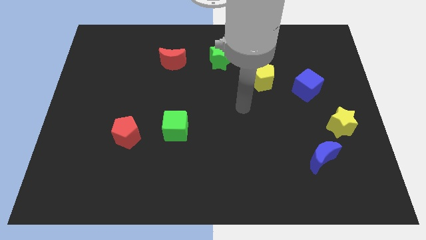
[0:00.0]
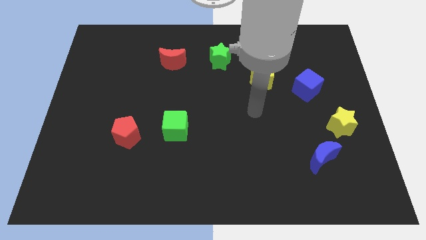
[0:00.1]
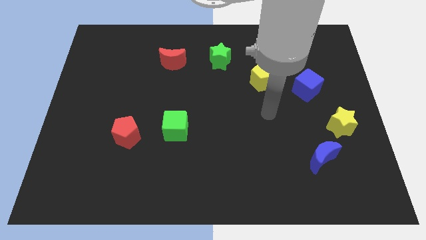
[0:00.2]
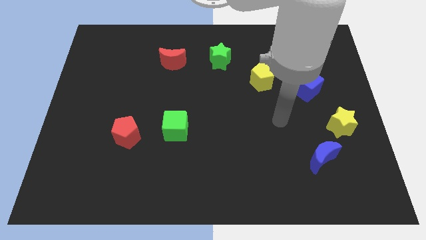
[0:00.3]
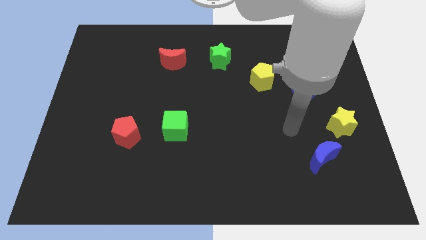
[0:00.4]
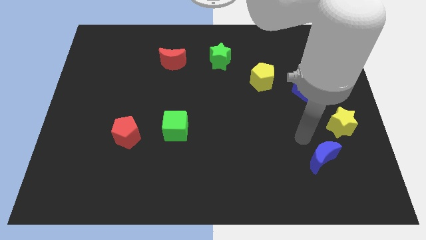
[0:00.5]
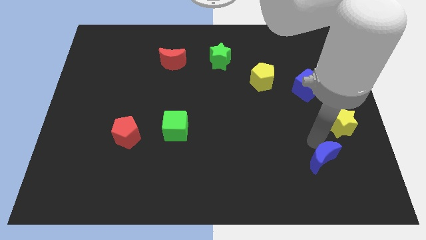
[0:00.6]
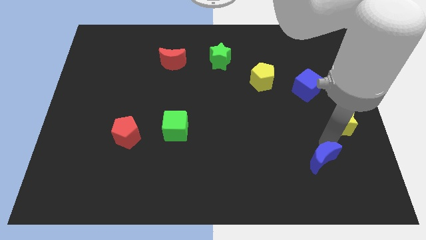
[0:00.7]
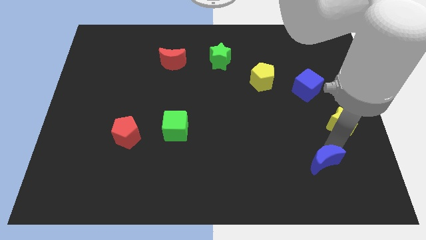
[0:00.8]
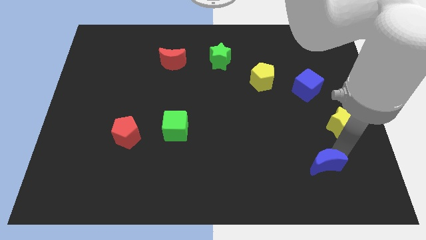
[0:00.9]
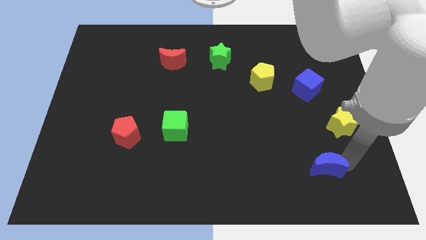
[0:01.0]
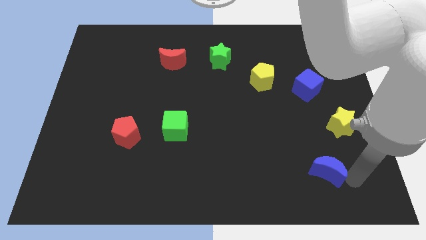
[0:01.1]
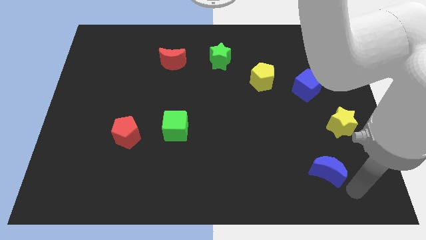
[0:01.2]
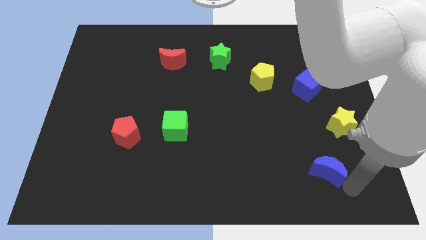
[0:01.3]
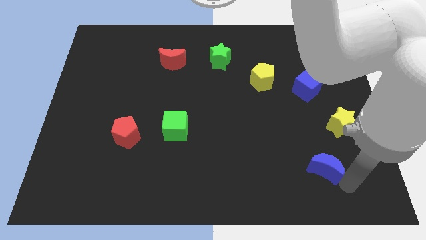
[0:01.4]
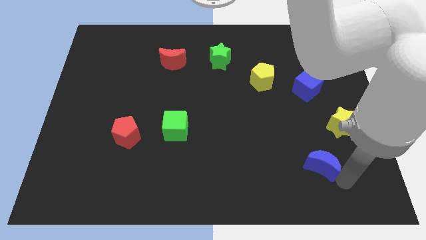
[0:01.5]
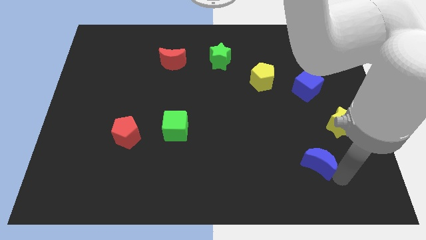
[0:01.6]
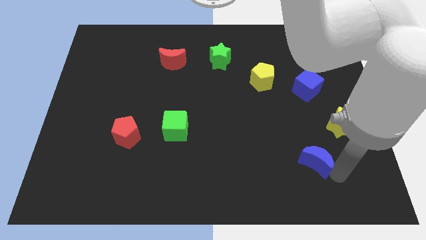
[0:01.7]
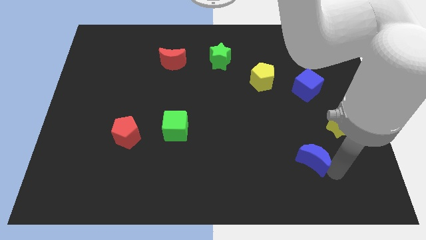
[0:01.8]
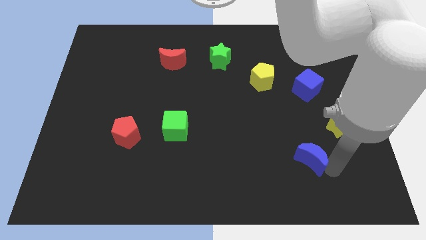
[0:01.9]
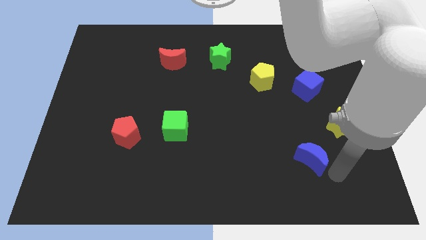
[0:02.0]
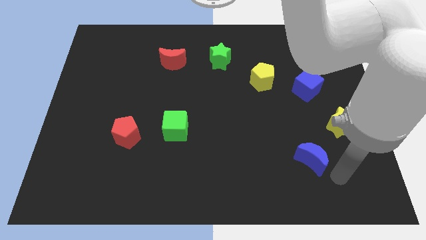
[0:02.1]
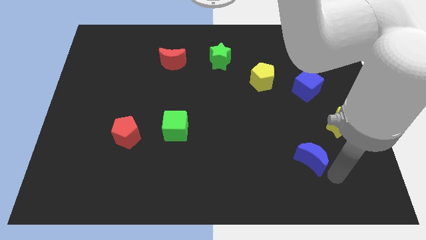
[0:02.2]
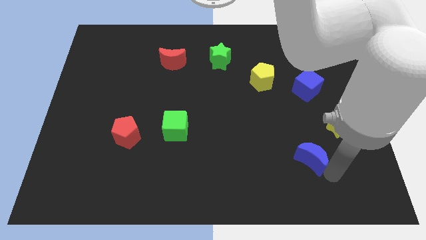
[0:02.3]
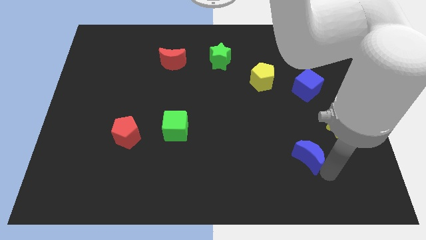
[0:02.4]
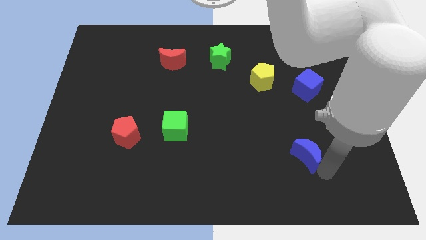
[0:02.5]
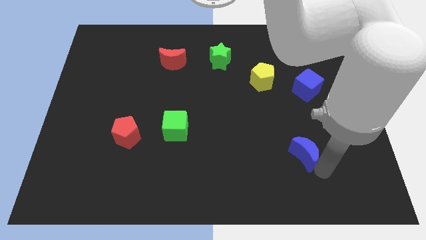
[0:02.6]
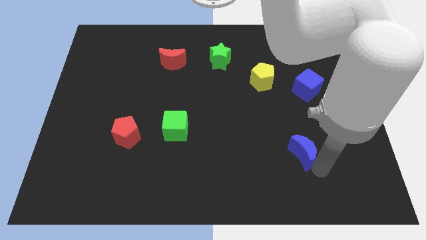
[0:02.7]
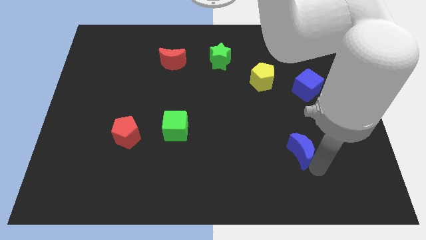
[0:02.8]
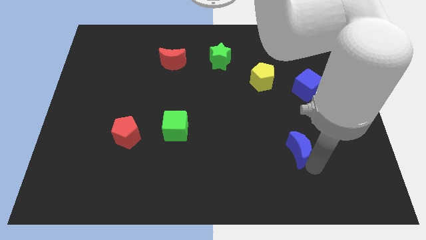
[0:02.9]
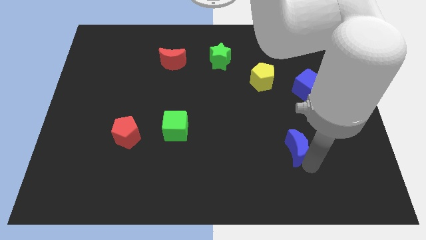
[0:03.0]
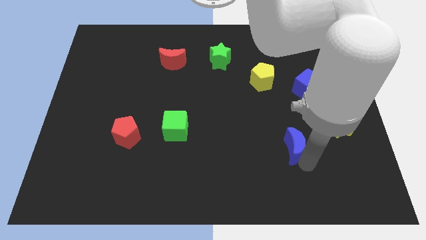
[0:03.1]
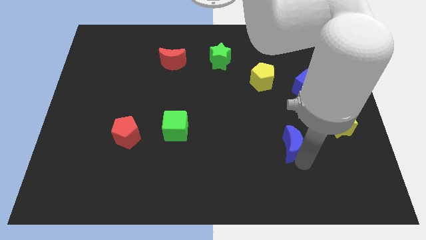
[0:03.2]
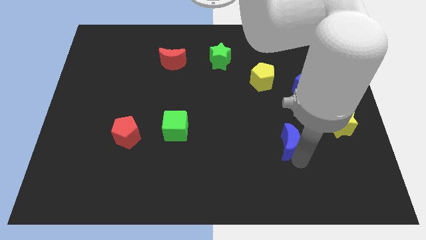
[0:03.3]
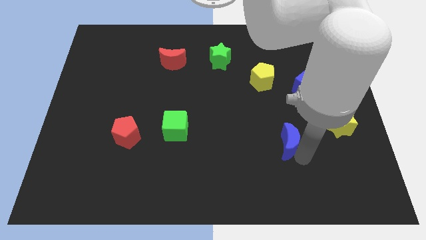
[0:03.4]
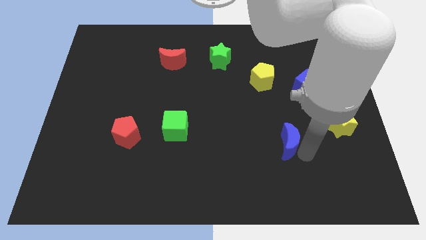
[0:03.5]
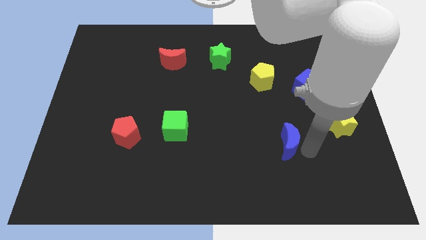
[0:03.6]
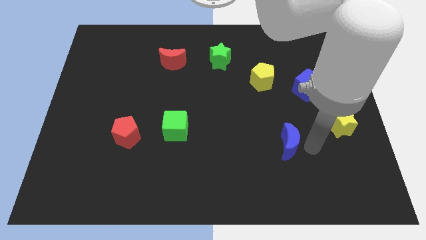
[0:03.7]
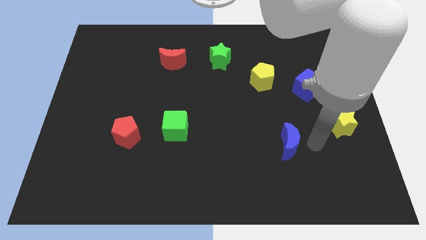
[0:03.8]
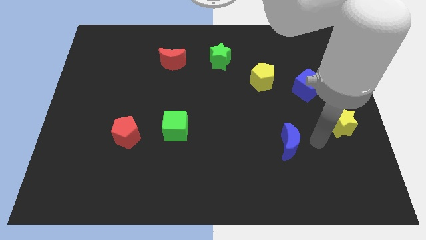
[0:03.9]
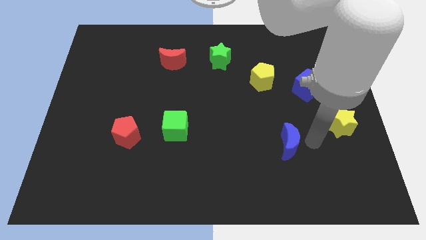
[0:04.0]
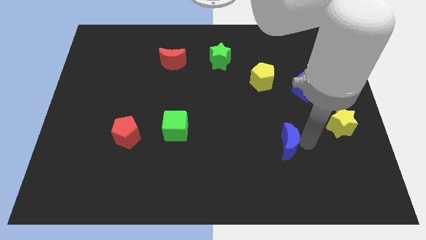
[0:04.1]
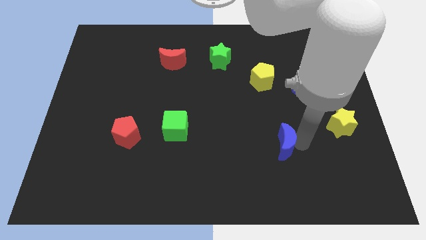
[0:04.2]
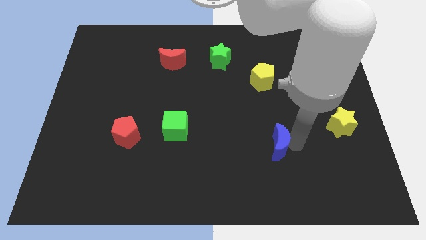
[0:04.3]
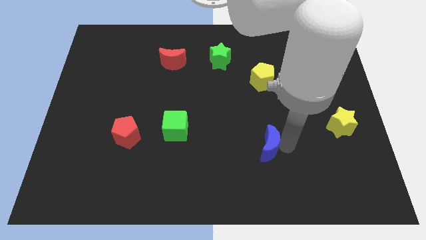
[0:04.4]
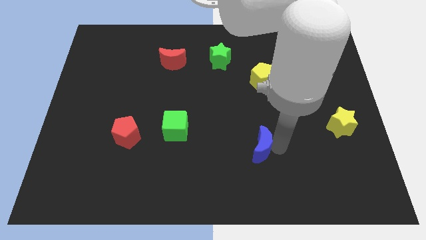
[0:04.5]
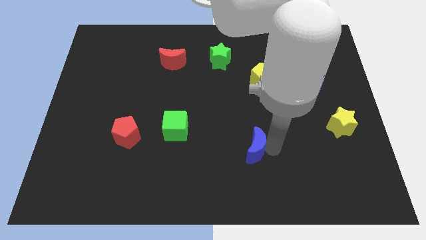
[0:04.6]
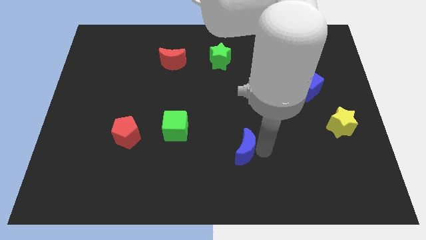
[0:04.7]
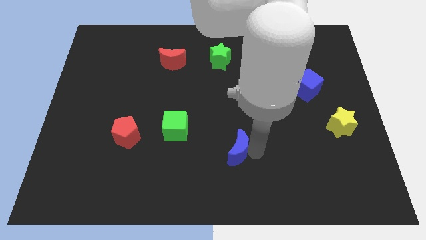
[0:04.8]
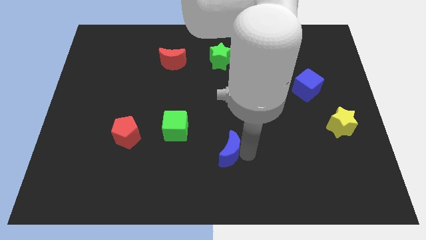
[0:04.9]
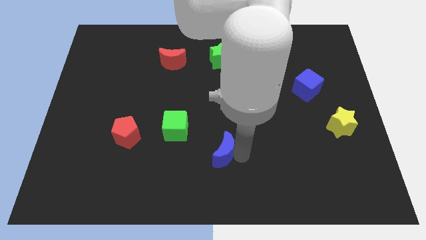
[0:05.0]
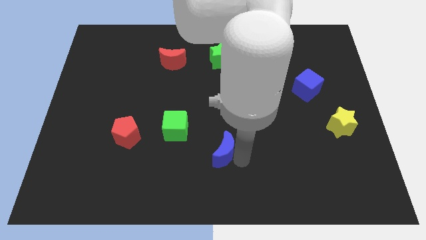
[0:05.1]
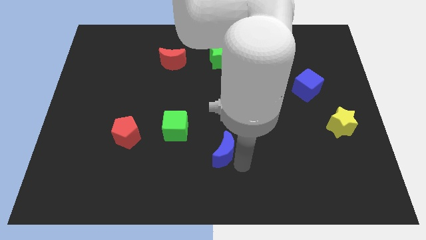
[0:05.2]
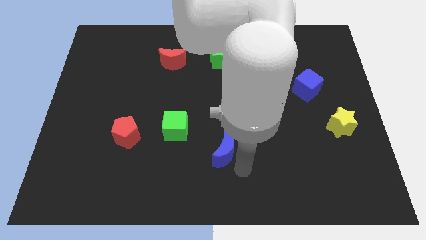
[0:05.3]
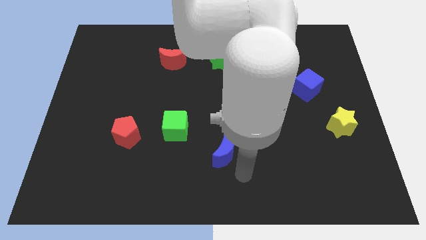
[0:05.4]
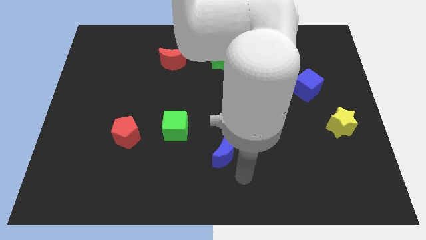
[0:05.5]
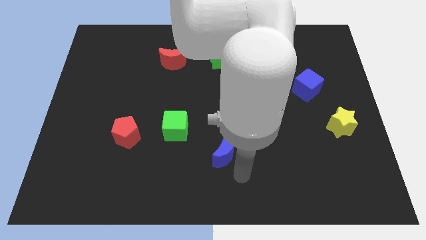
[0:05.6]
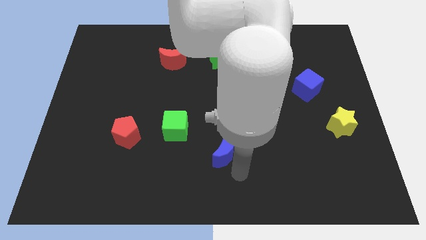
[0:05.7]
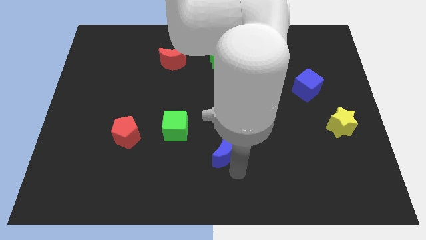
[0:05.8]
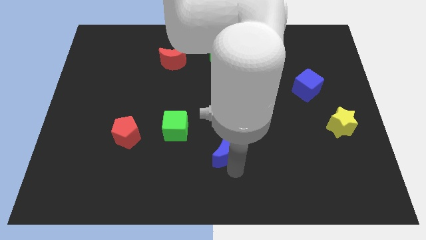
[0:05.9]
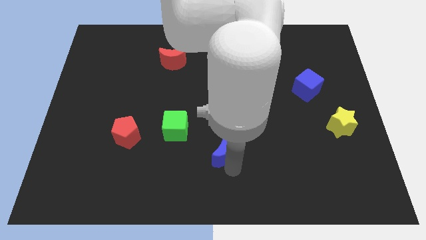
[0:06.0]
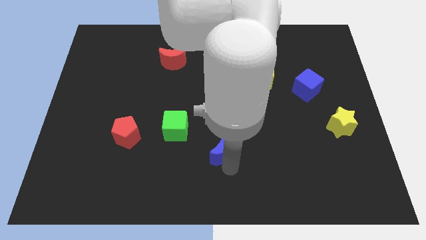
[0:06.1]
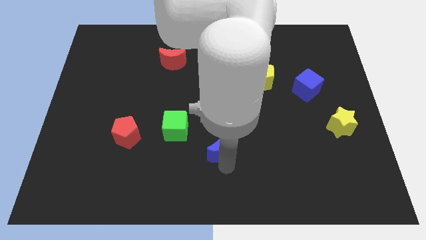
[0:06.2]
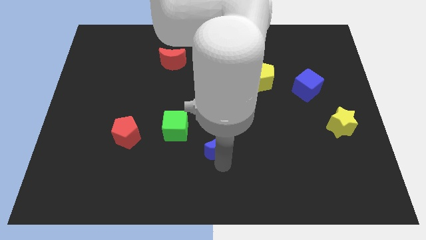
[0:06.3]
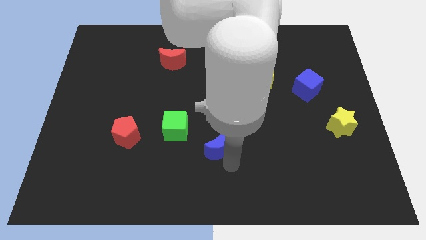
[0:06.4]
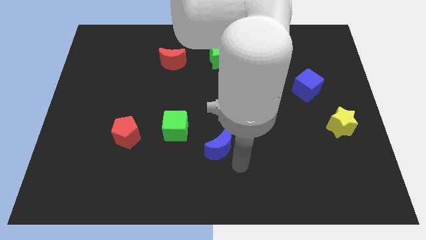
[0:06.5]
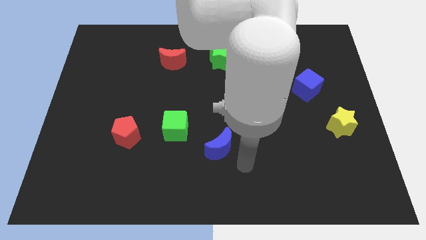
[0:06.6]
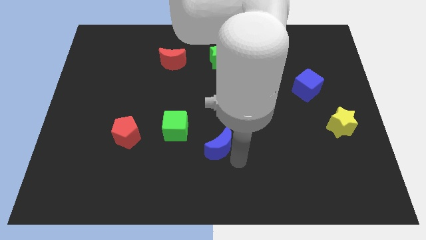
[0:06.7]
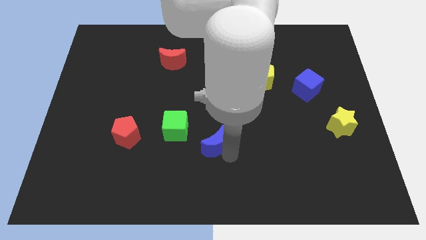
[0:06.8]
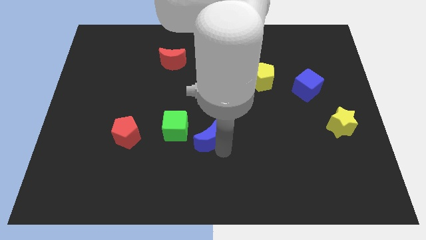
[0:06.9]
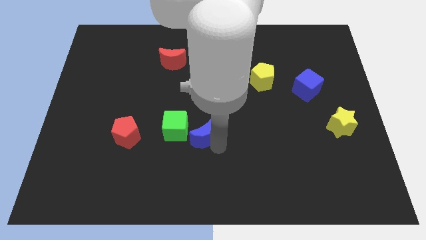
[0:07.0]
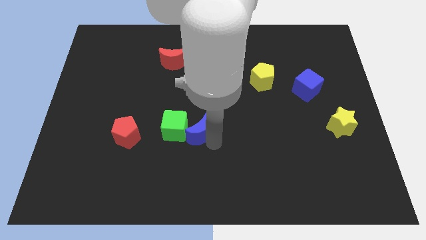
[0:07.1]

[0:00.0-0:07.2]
push the blue moon close to the green cube

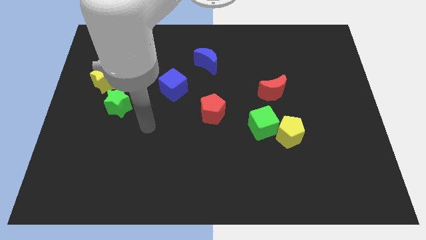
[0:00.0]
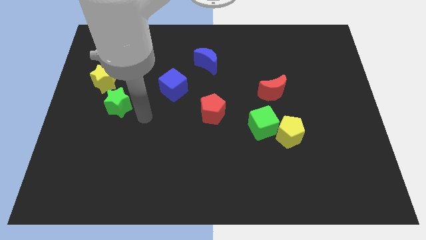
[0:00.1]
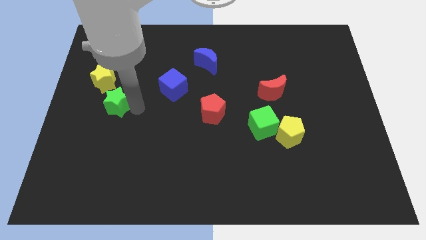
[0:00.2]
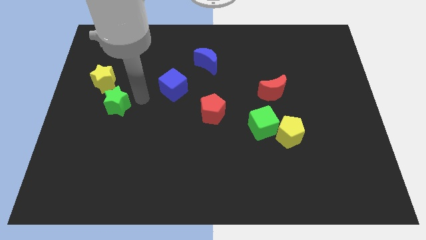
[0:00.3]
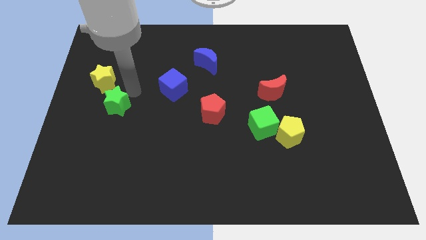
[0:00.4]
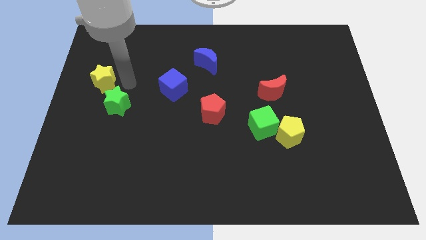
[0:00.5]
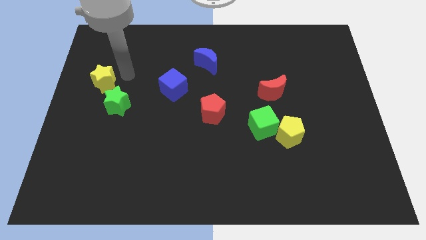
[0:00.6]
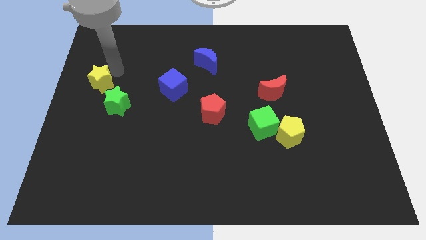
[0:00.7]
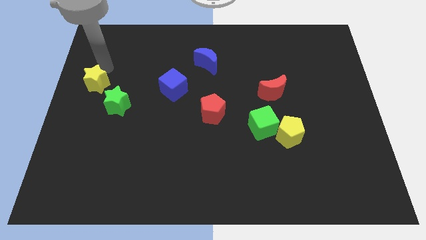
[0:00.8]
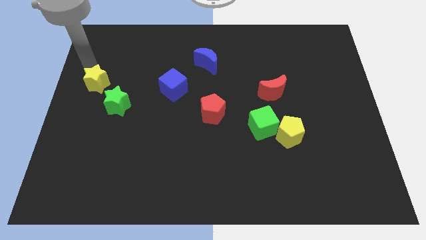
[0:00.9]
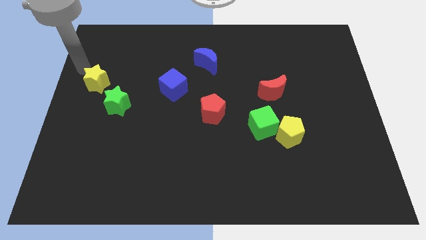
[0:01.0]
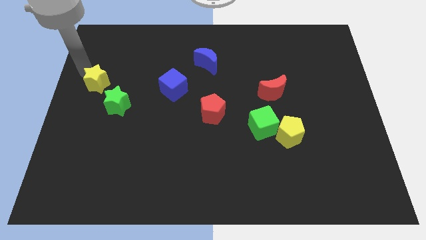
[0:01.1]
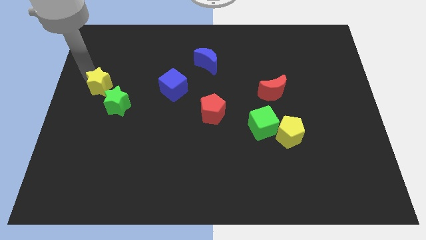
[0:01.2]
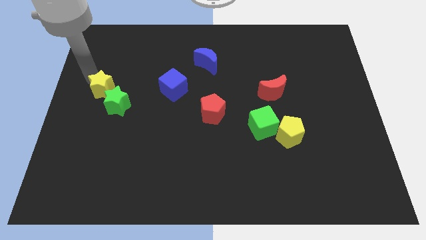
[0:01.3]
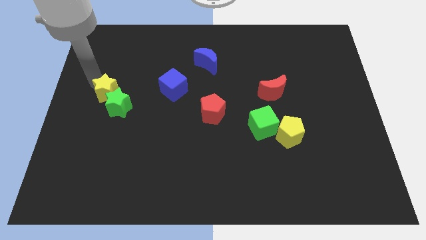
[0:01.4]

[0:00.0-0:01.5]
put the yellow star towards the green star
